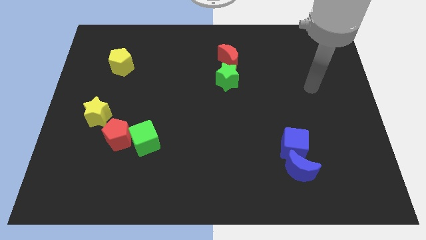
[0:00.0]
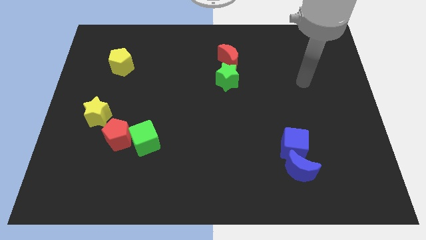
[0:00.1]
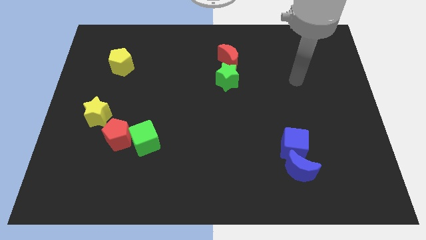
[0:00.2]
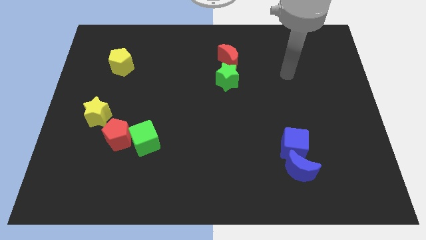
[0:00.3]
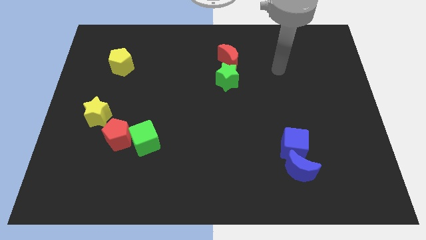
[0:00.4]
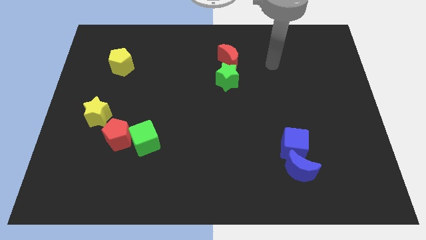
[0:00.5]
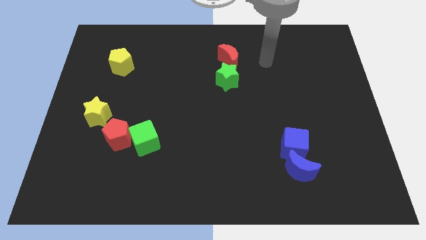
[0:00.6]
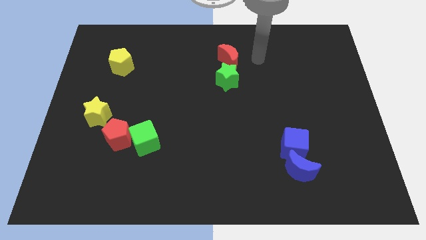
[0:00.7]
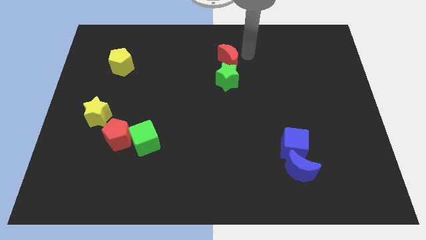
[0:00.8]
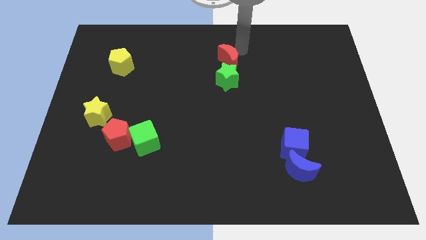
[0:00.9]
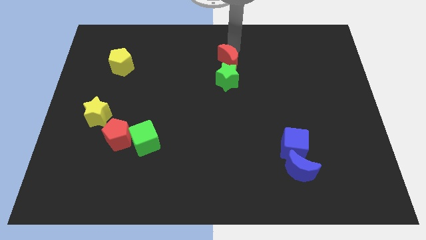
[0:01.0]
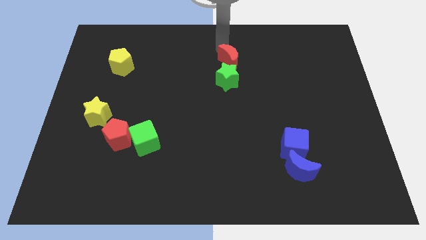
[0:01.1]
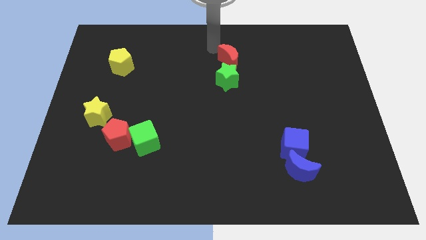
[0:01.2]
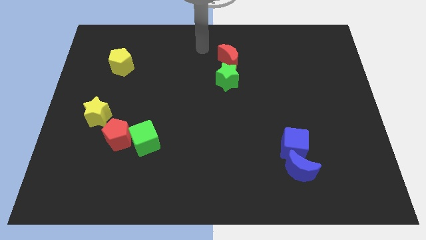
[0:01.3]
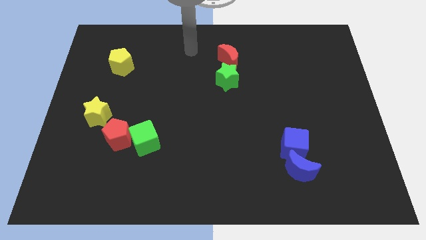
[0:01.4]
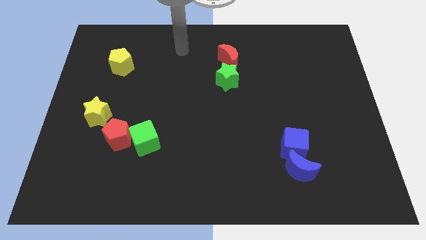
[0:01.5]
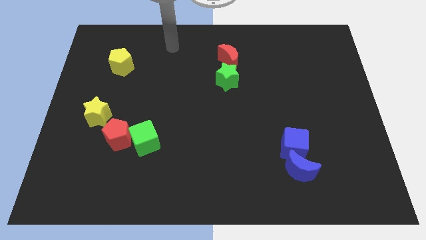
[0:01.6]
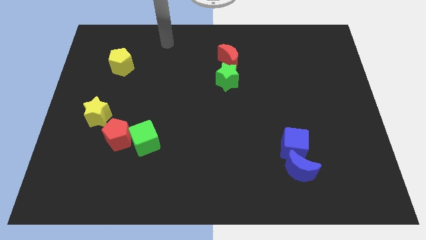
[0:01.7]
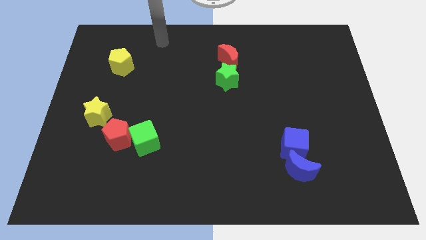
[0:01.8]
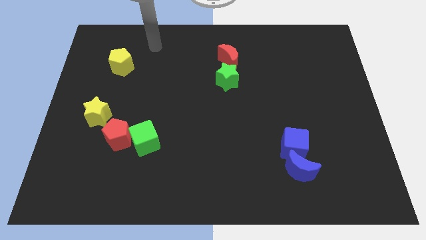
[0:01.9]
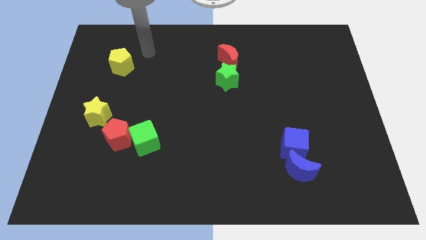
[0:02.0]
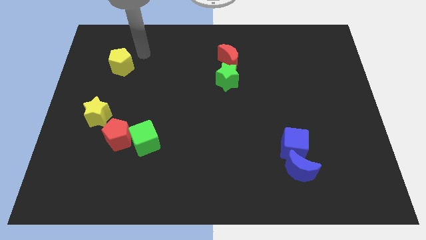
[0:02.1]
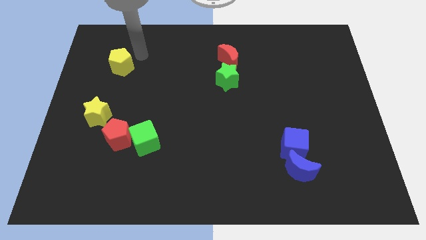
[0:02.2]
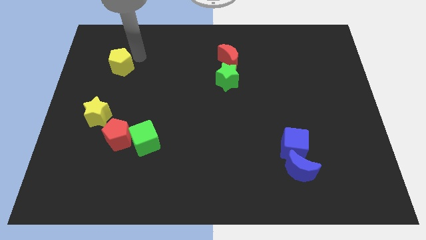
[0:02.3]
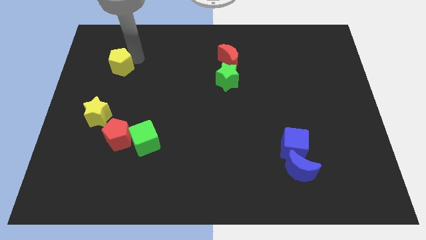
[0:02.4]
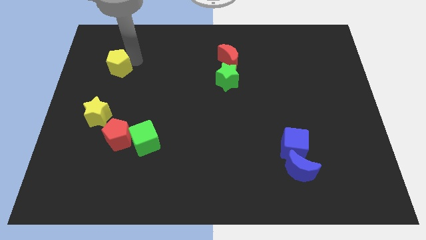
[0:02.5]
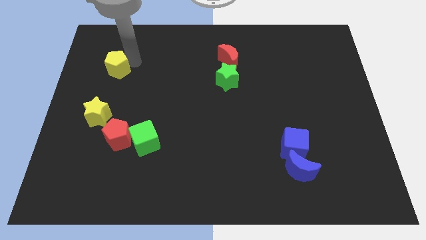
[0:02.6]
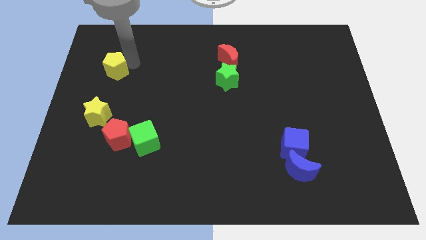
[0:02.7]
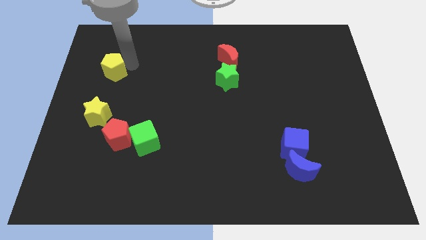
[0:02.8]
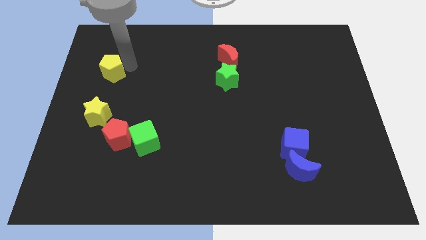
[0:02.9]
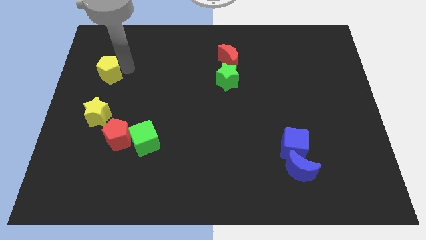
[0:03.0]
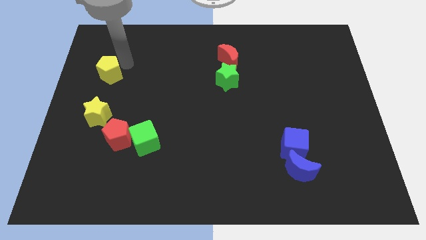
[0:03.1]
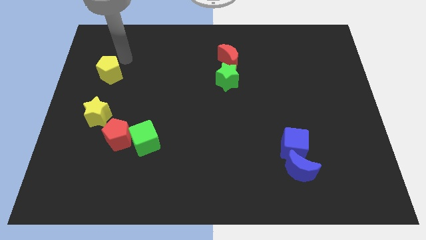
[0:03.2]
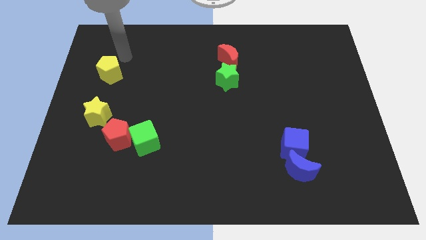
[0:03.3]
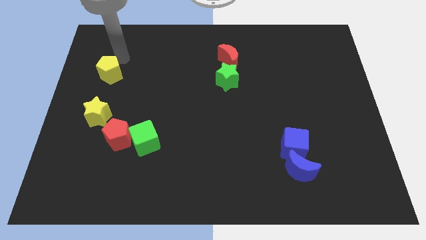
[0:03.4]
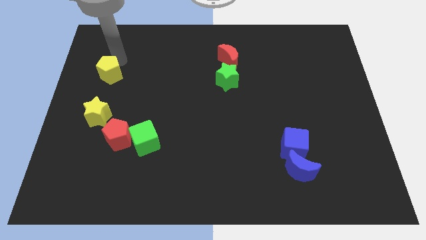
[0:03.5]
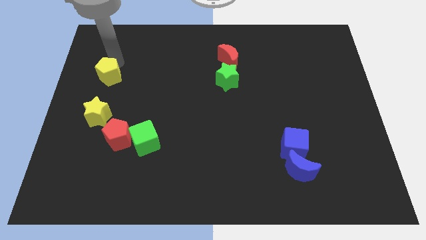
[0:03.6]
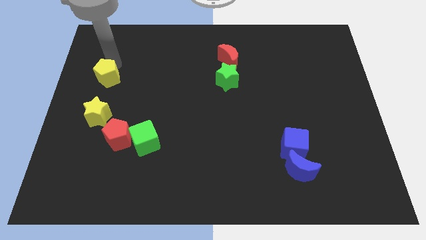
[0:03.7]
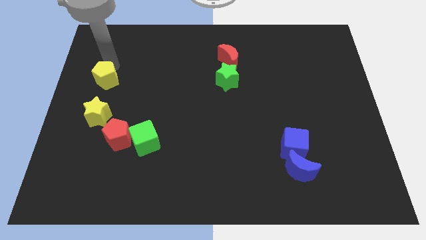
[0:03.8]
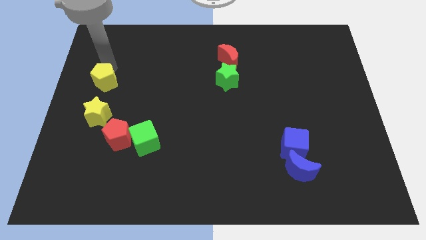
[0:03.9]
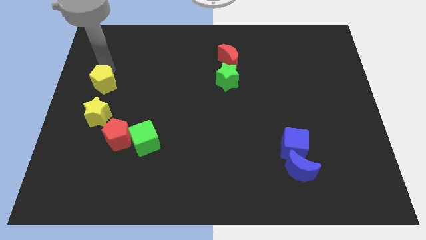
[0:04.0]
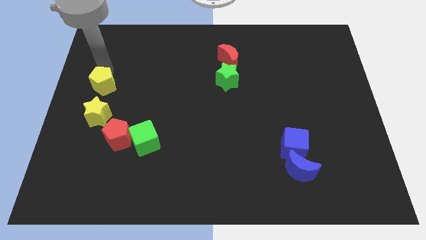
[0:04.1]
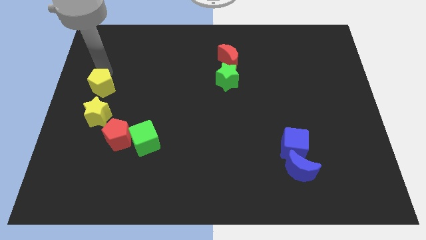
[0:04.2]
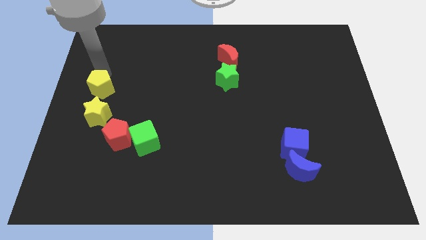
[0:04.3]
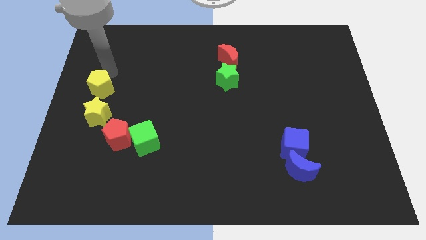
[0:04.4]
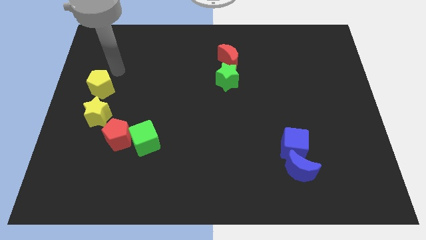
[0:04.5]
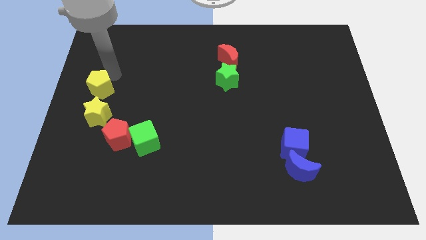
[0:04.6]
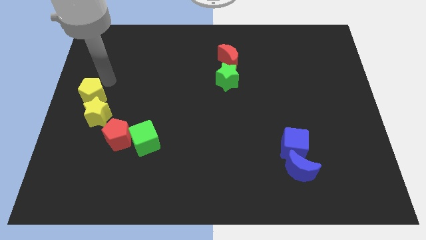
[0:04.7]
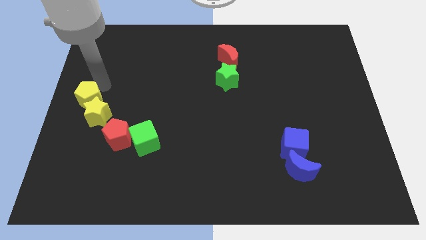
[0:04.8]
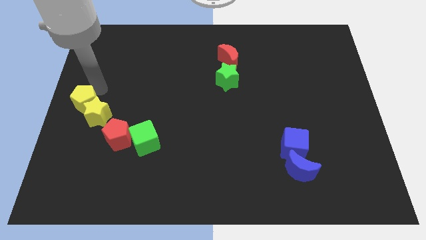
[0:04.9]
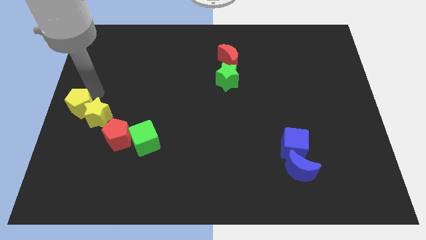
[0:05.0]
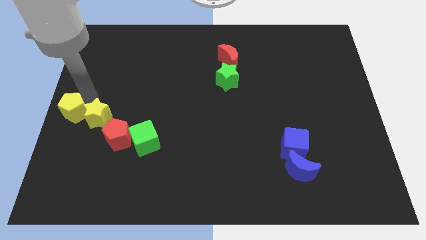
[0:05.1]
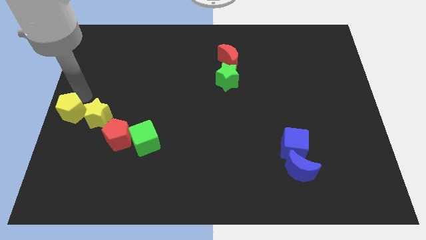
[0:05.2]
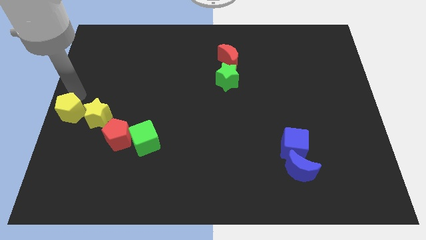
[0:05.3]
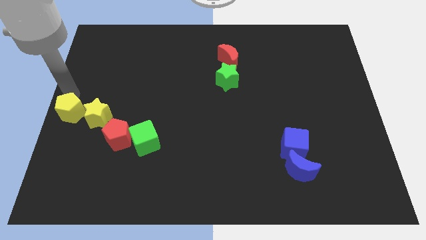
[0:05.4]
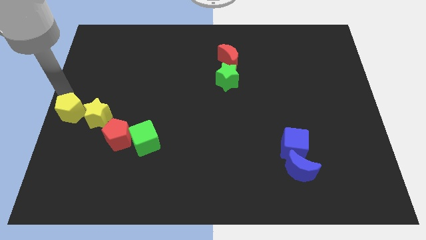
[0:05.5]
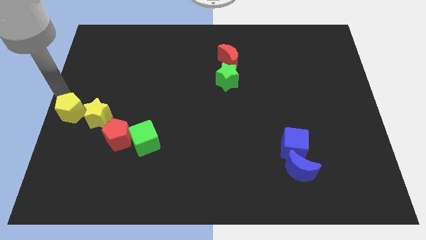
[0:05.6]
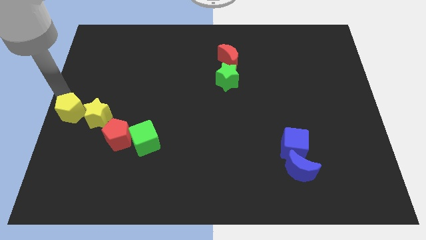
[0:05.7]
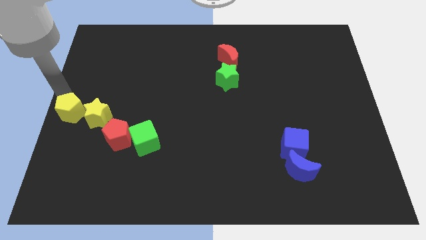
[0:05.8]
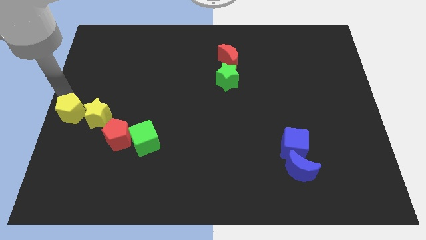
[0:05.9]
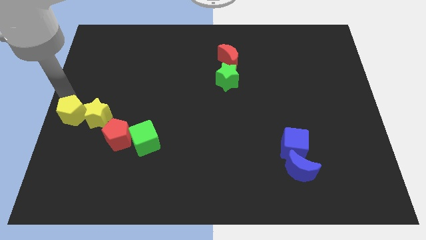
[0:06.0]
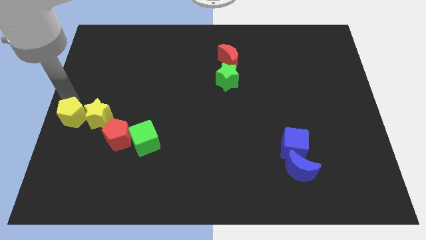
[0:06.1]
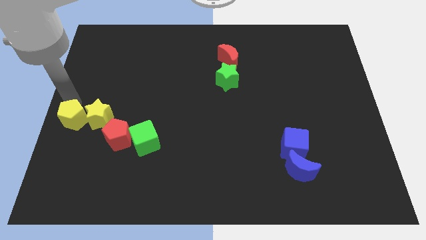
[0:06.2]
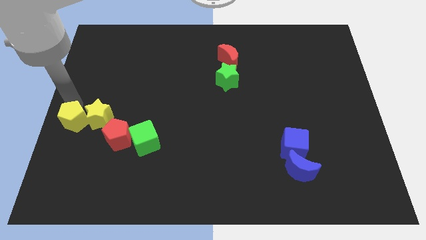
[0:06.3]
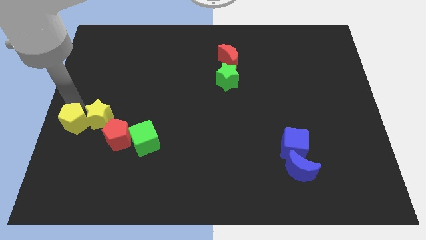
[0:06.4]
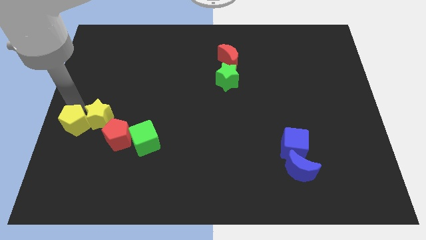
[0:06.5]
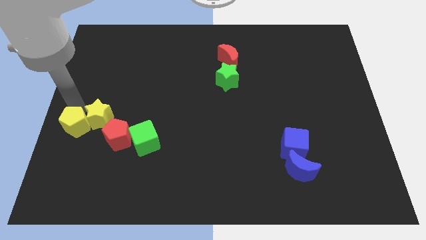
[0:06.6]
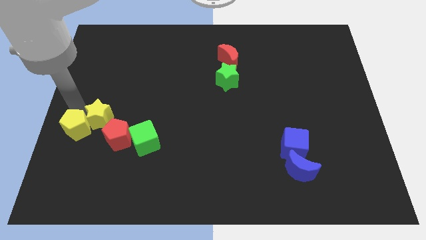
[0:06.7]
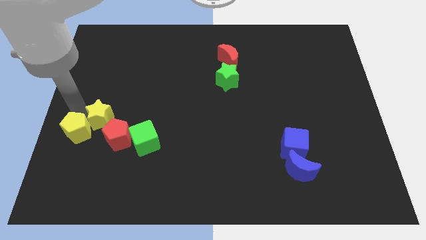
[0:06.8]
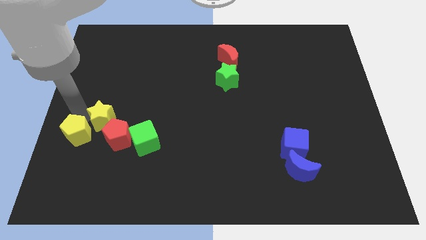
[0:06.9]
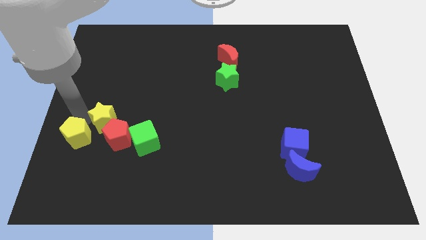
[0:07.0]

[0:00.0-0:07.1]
push the yellow pentagon down

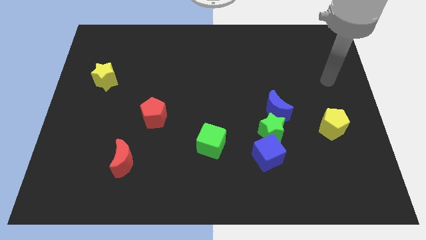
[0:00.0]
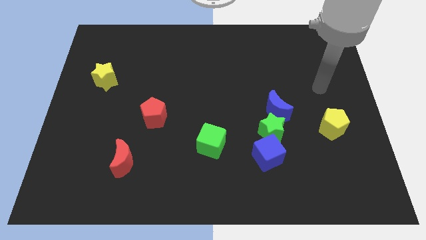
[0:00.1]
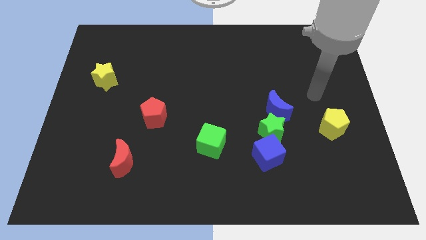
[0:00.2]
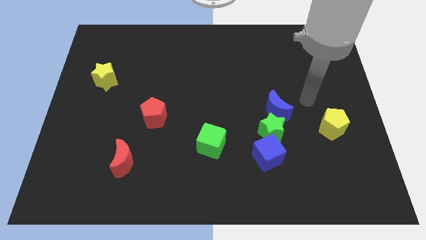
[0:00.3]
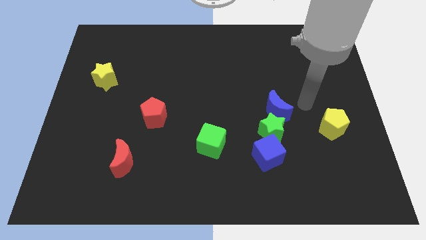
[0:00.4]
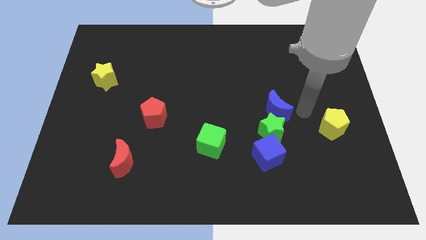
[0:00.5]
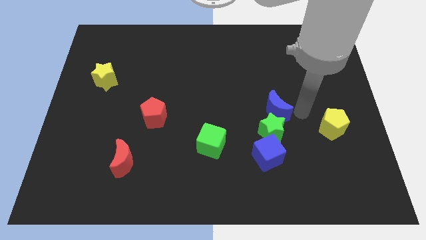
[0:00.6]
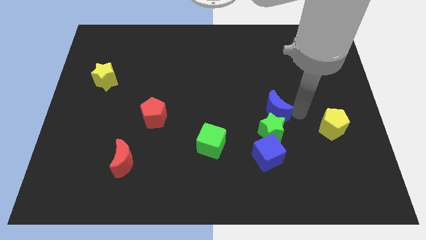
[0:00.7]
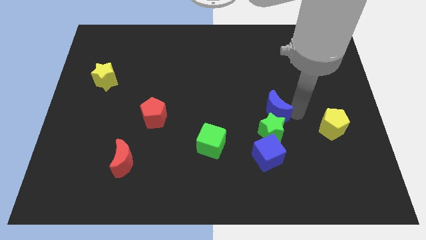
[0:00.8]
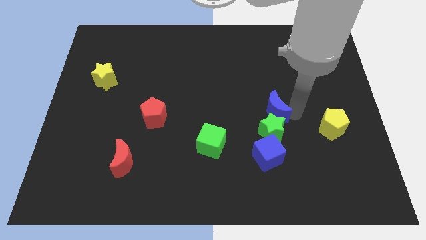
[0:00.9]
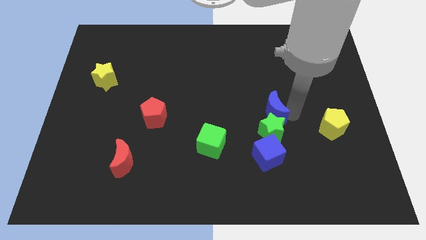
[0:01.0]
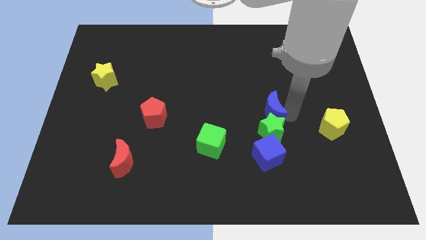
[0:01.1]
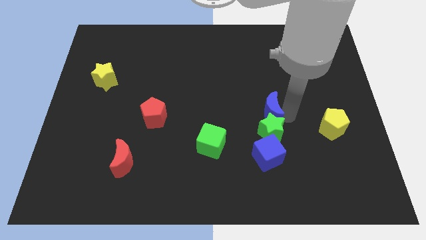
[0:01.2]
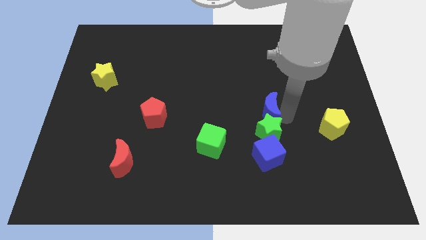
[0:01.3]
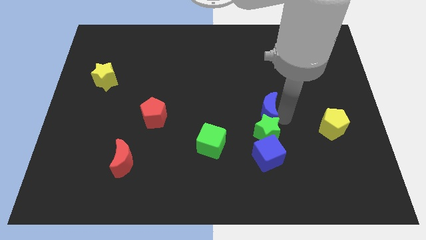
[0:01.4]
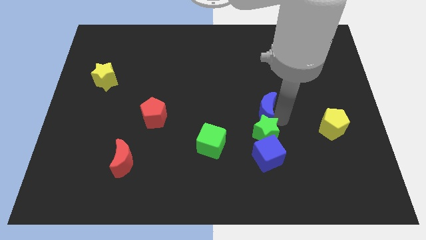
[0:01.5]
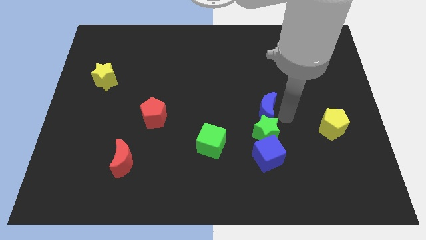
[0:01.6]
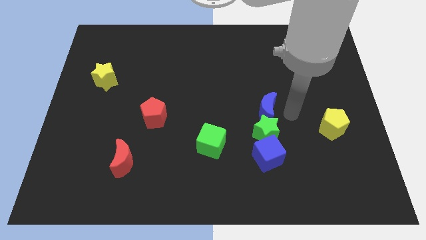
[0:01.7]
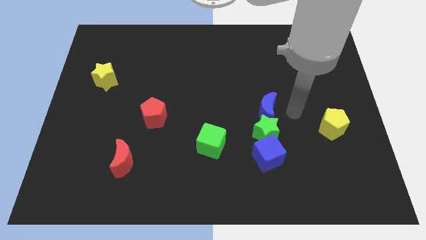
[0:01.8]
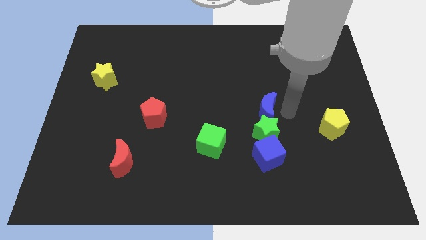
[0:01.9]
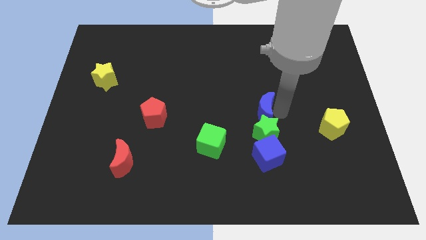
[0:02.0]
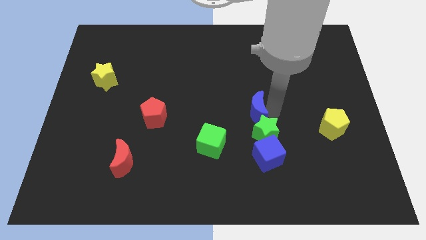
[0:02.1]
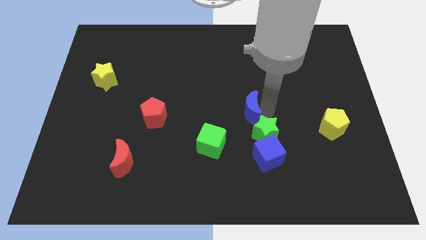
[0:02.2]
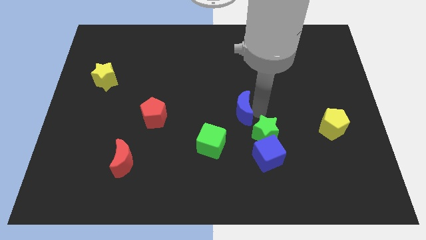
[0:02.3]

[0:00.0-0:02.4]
push the blue moon a bit to the left
